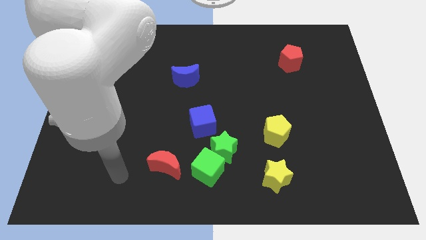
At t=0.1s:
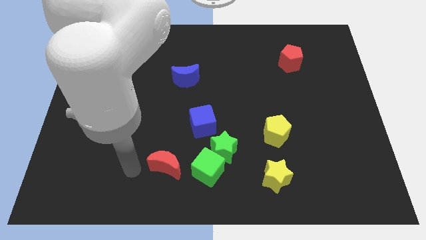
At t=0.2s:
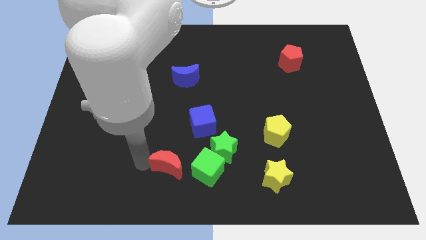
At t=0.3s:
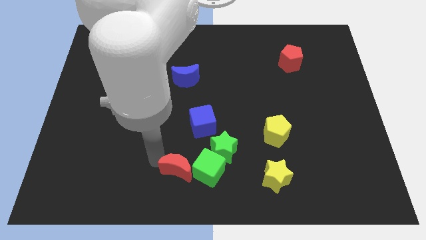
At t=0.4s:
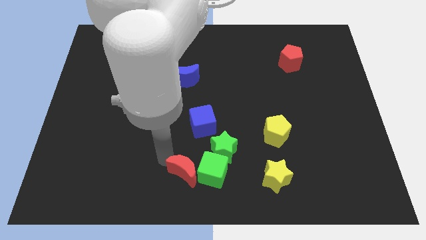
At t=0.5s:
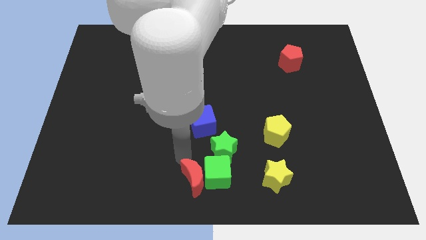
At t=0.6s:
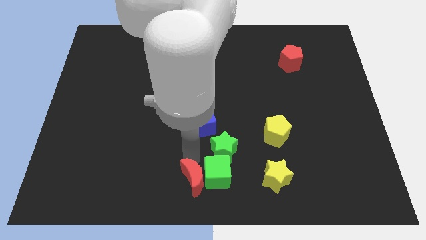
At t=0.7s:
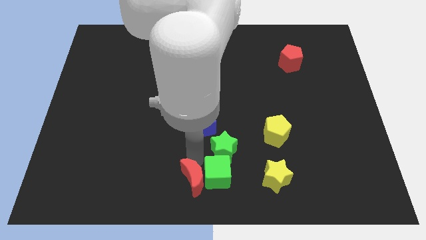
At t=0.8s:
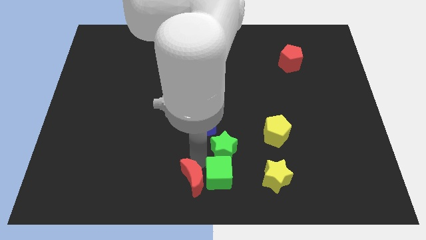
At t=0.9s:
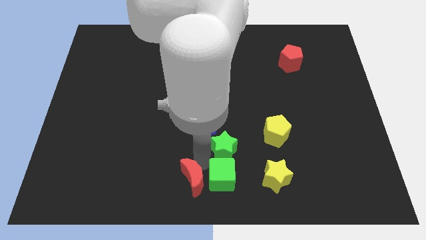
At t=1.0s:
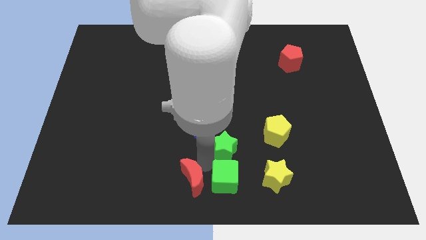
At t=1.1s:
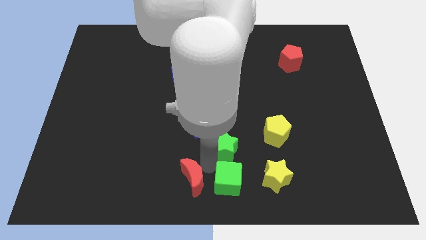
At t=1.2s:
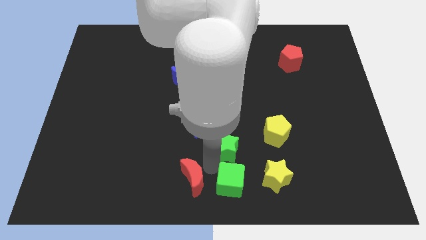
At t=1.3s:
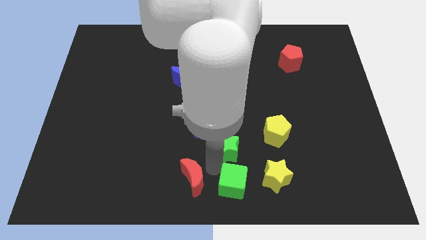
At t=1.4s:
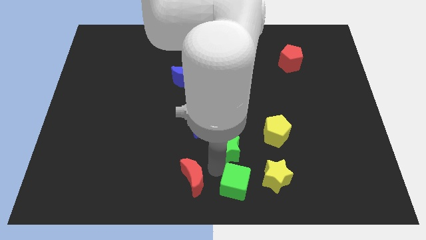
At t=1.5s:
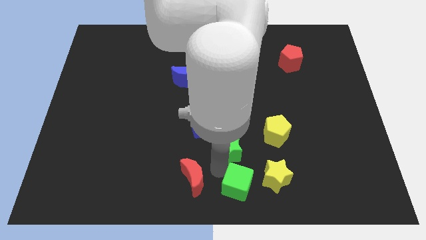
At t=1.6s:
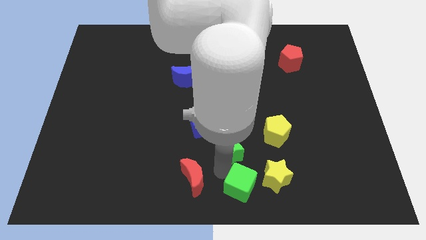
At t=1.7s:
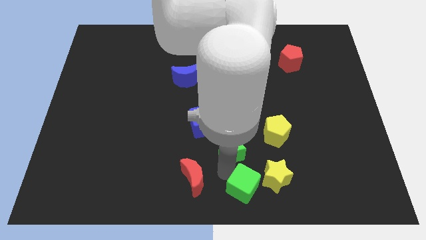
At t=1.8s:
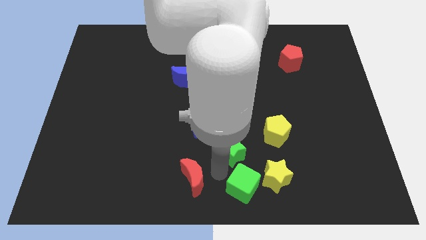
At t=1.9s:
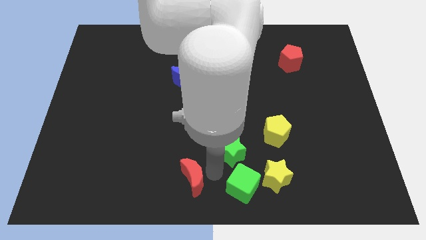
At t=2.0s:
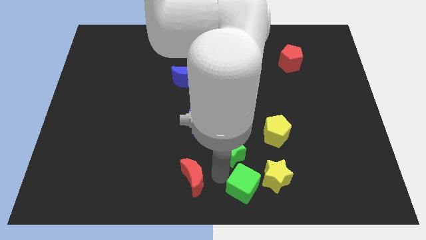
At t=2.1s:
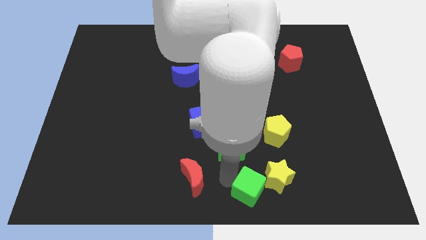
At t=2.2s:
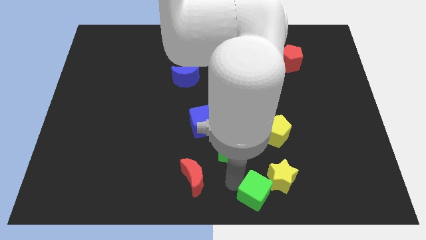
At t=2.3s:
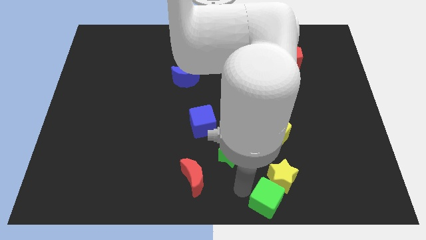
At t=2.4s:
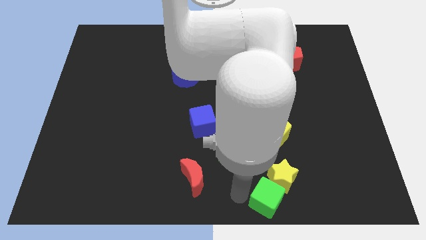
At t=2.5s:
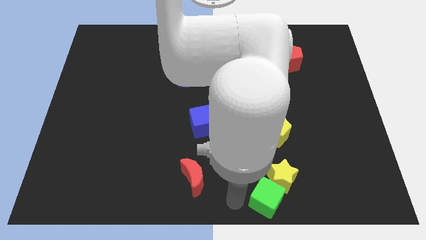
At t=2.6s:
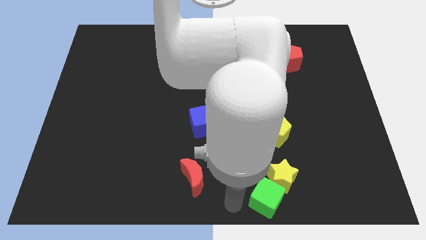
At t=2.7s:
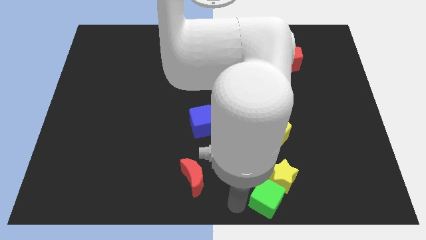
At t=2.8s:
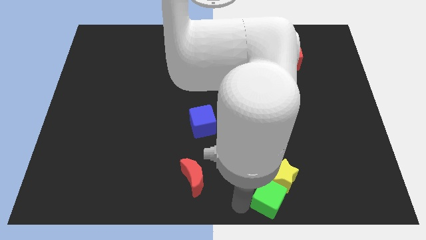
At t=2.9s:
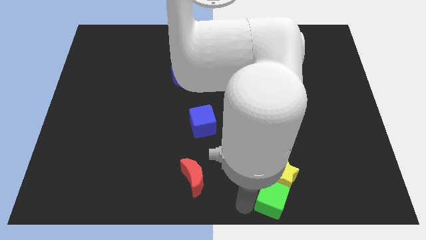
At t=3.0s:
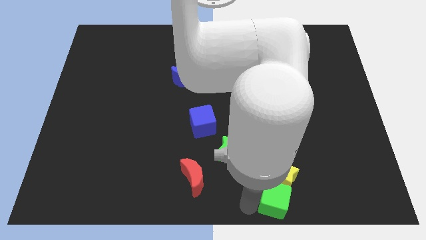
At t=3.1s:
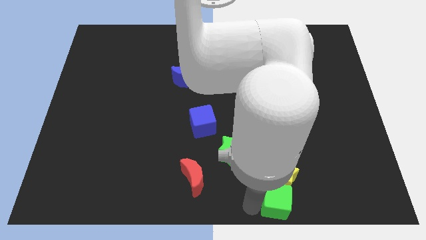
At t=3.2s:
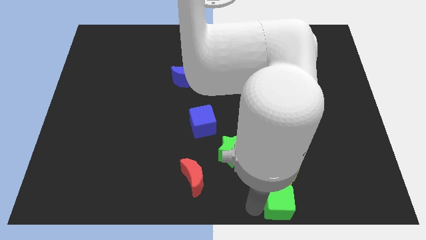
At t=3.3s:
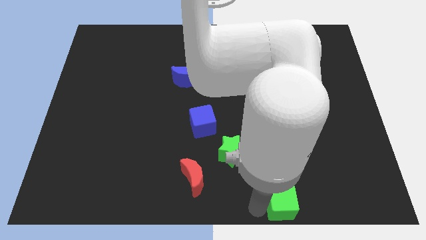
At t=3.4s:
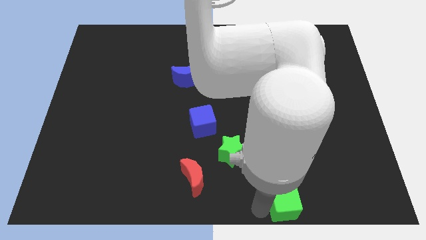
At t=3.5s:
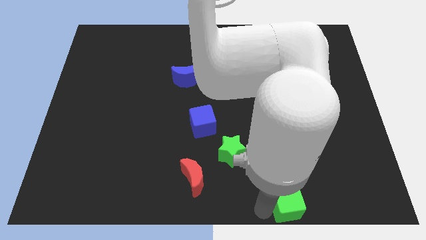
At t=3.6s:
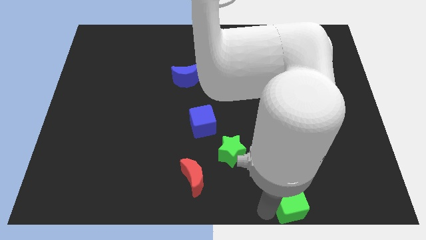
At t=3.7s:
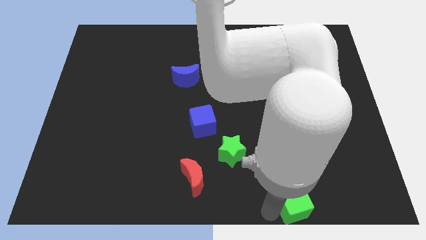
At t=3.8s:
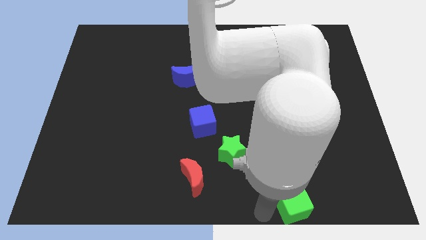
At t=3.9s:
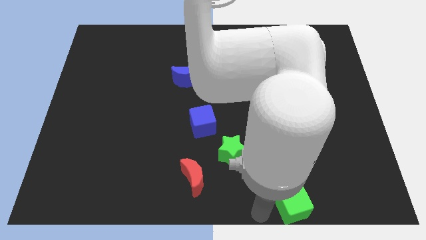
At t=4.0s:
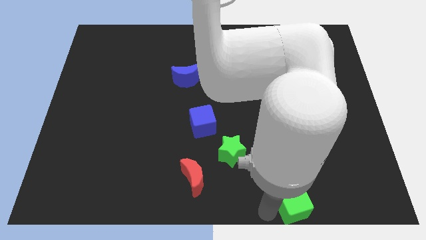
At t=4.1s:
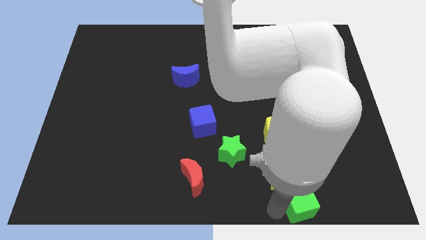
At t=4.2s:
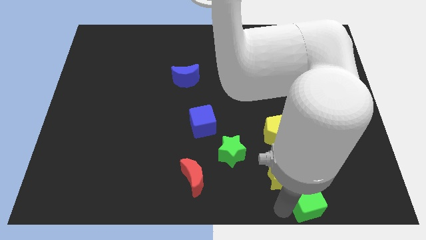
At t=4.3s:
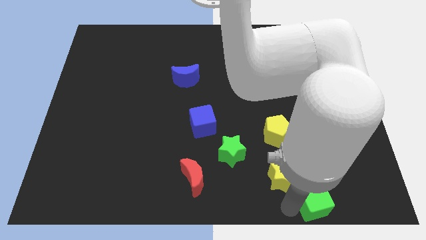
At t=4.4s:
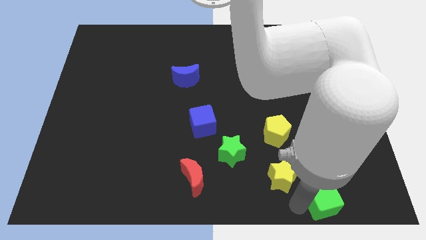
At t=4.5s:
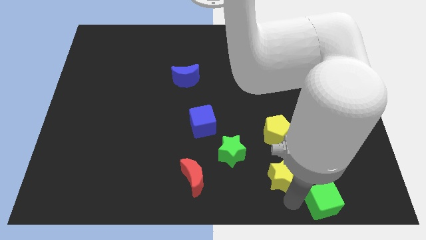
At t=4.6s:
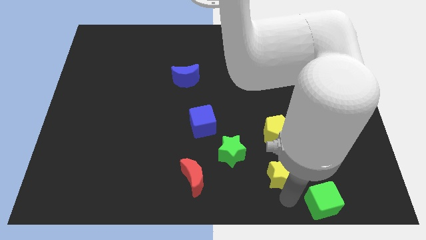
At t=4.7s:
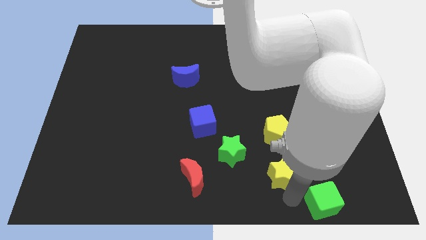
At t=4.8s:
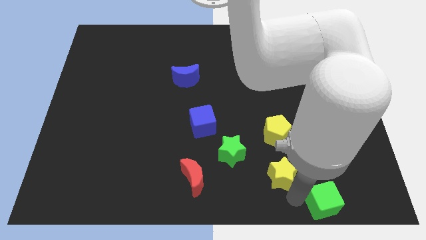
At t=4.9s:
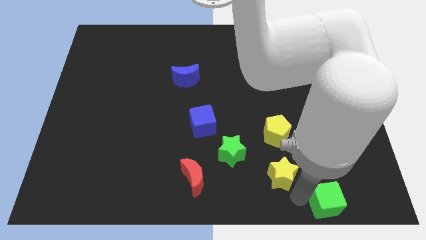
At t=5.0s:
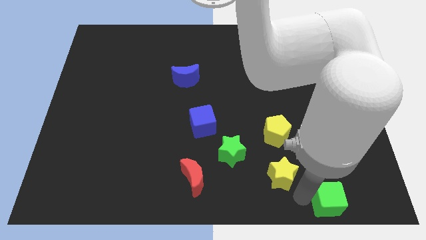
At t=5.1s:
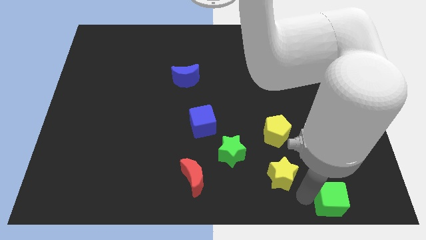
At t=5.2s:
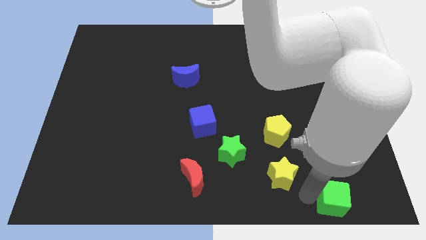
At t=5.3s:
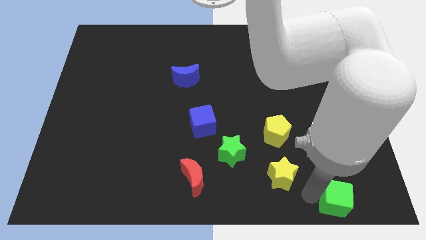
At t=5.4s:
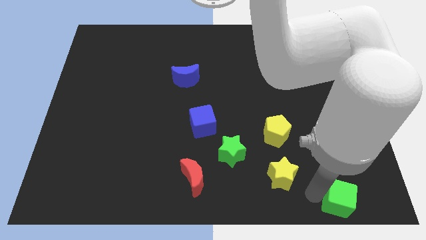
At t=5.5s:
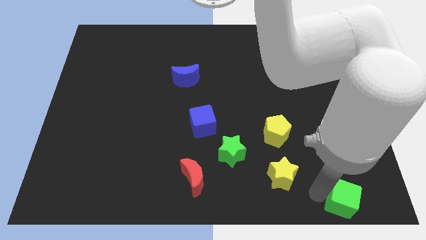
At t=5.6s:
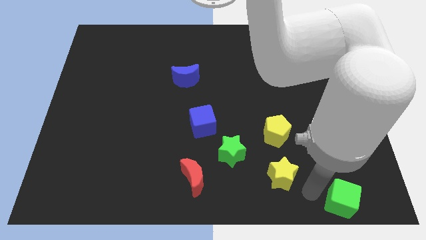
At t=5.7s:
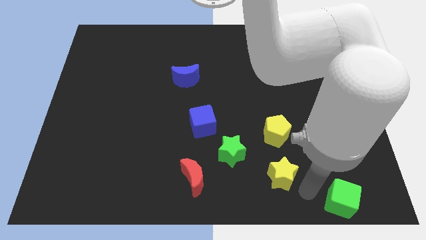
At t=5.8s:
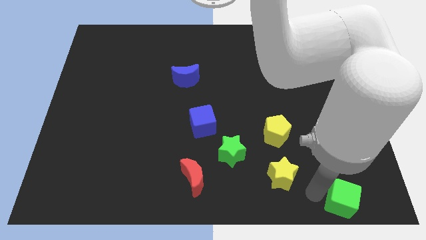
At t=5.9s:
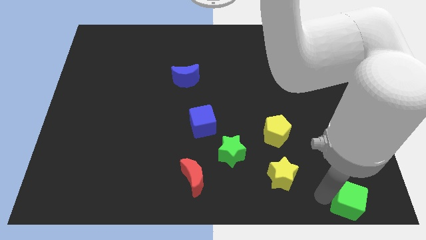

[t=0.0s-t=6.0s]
push the green cube to the bottom right of the board
